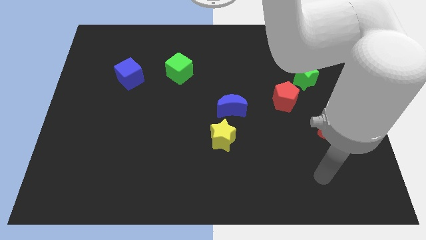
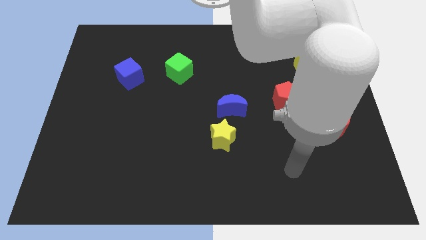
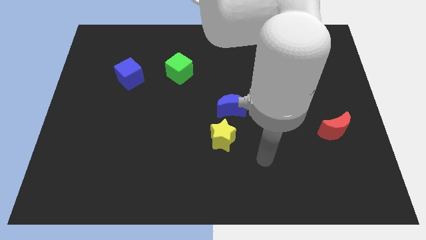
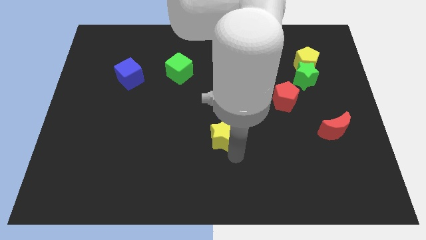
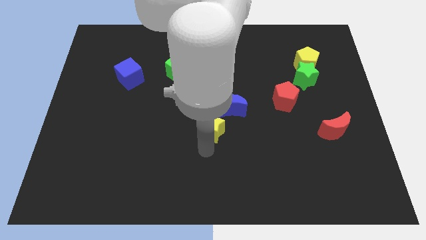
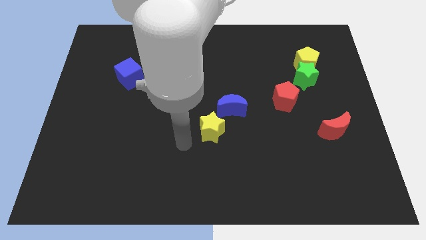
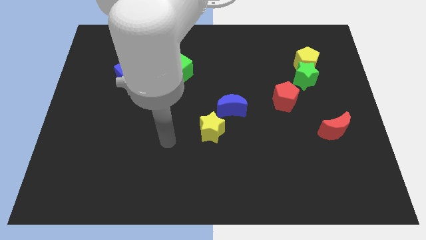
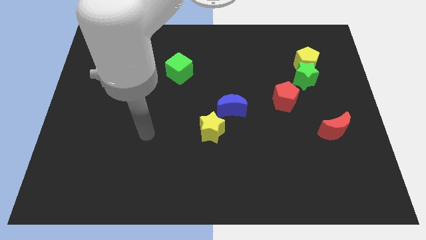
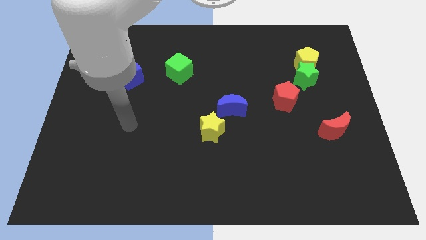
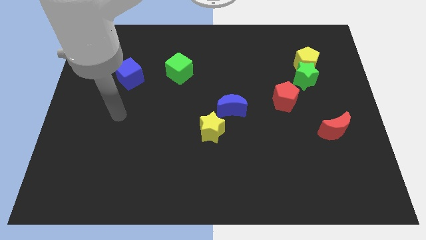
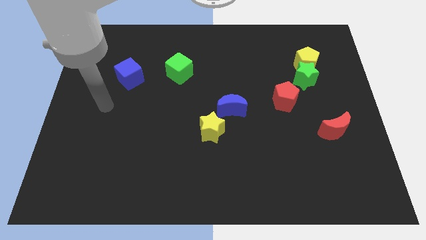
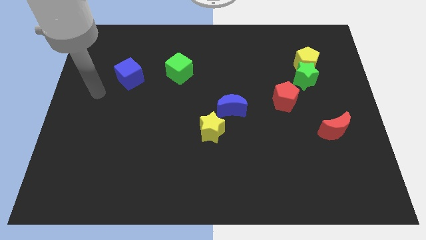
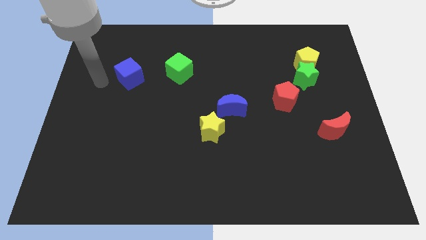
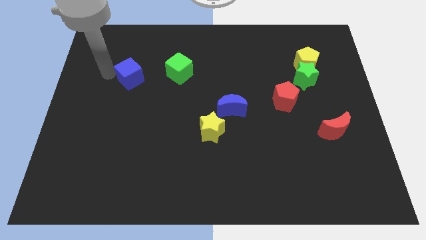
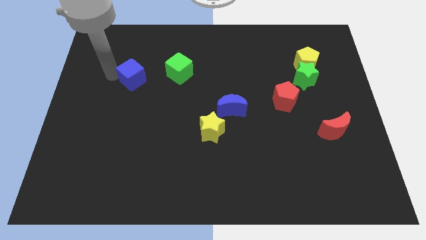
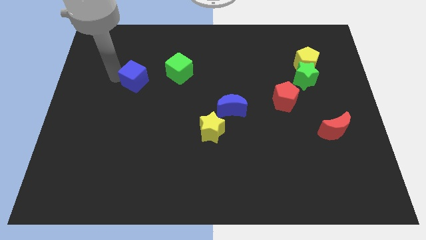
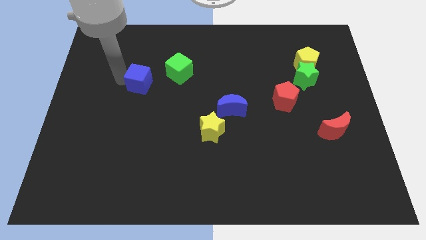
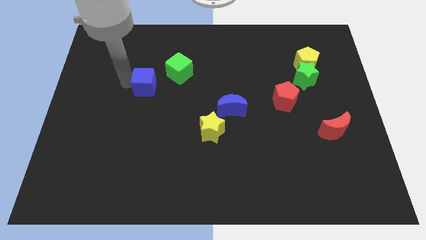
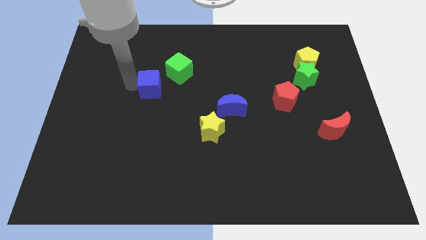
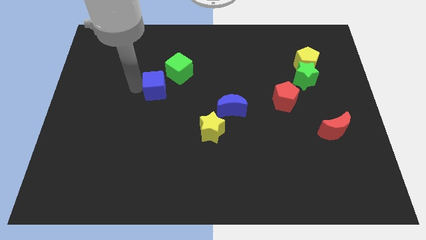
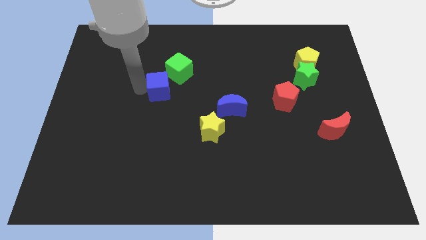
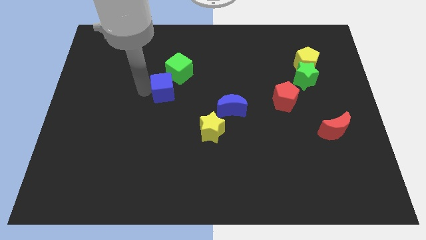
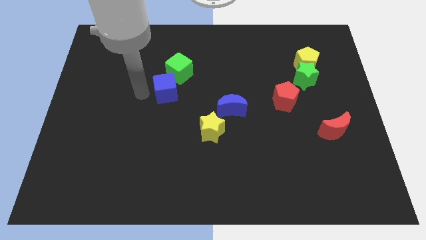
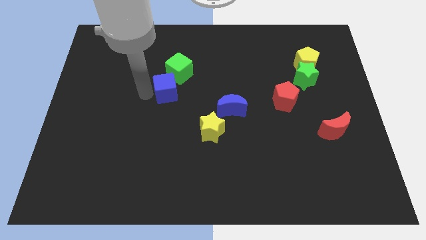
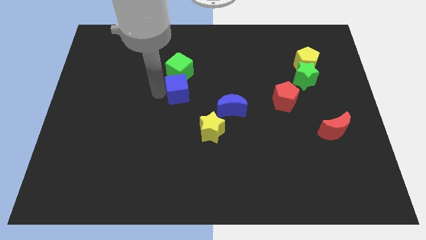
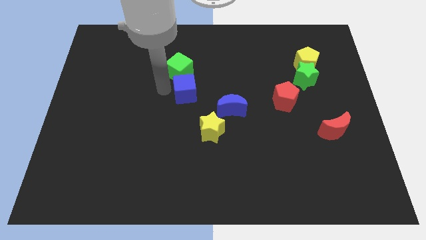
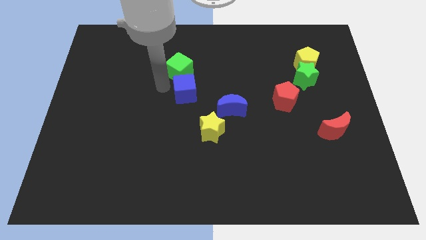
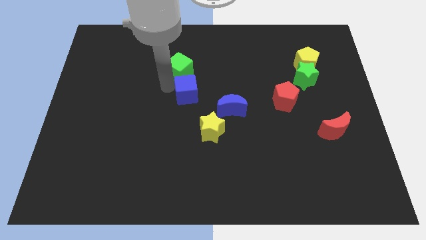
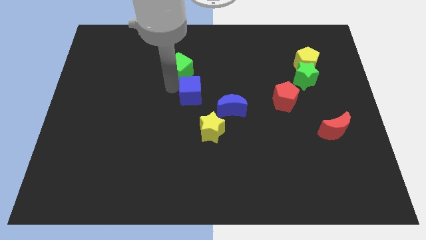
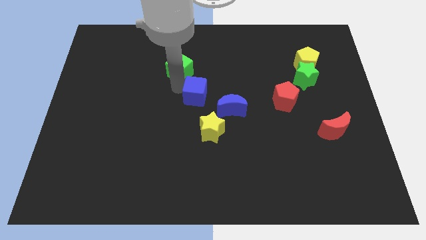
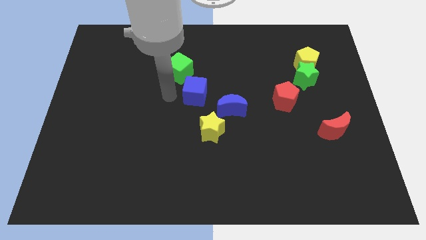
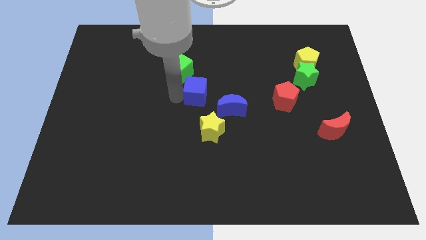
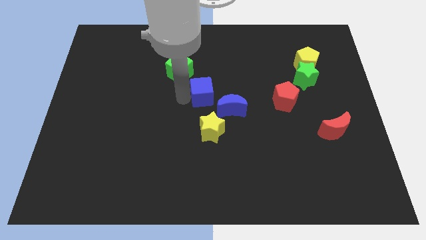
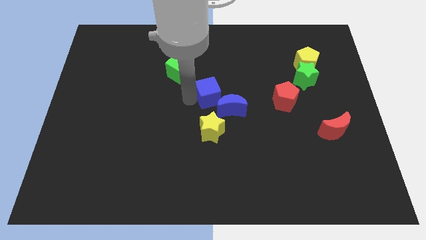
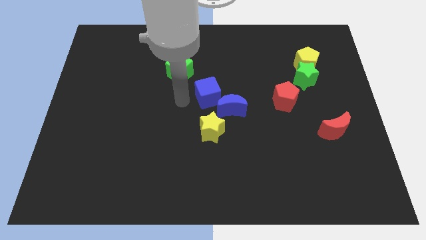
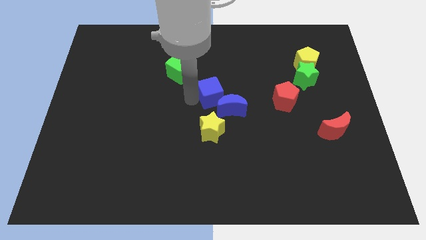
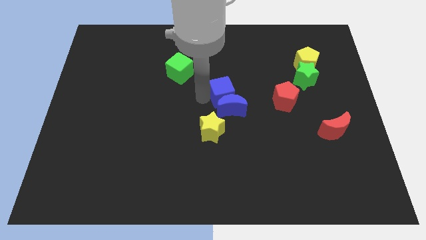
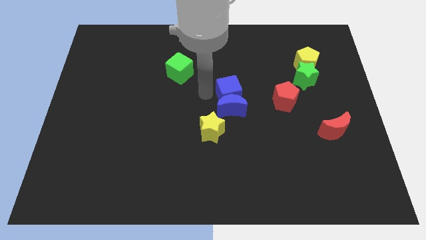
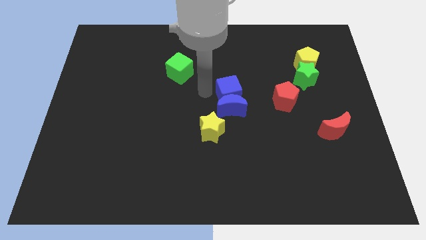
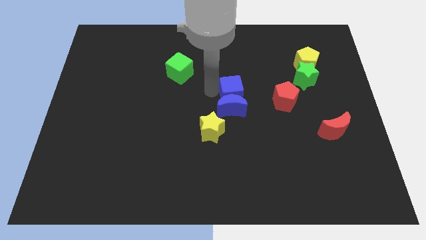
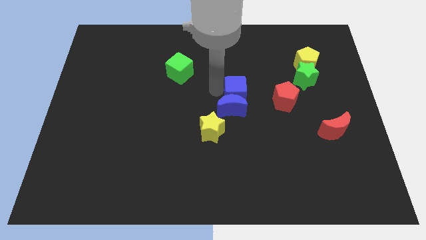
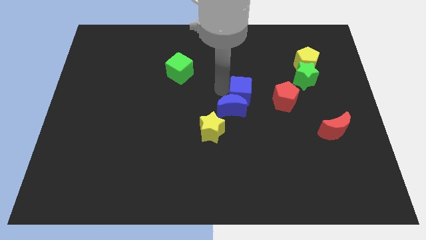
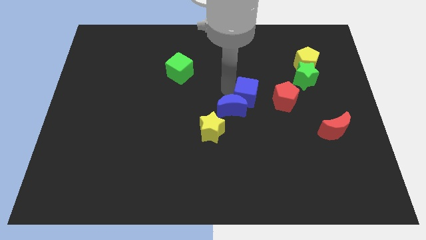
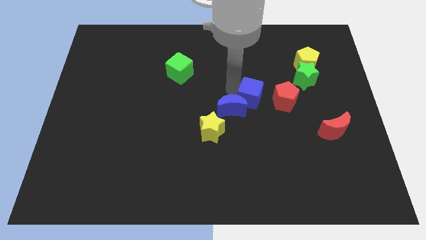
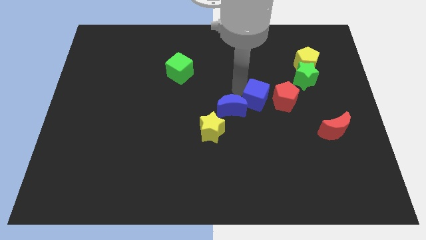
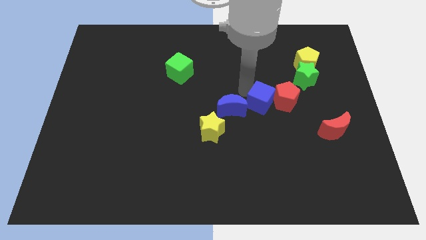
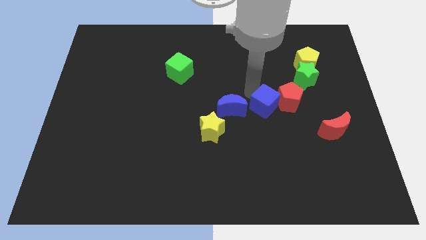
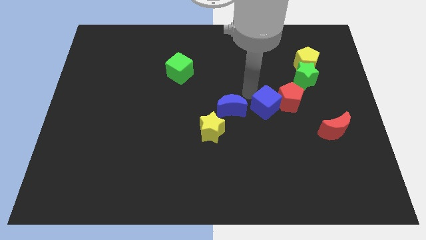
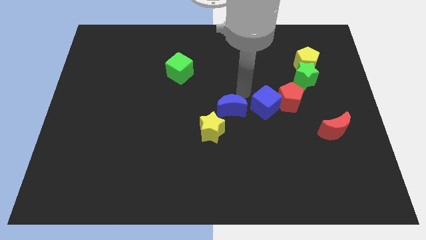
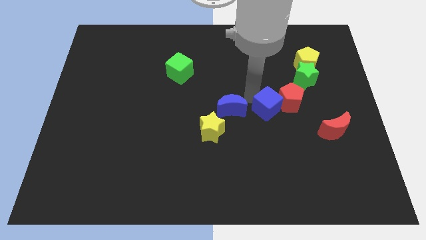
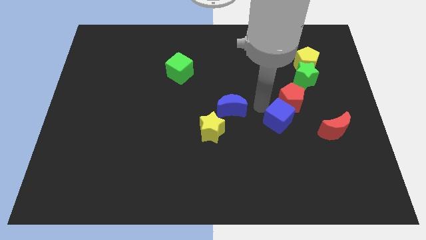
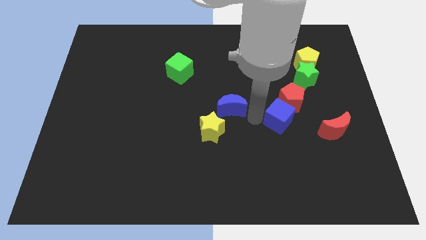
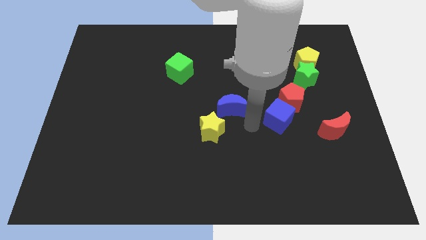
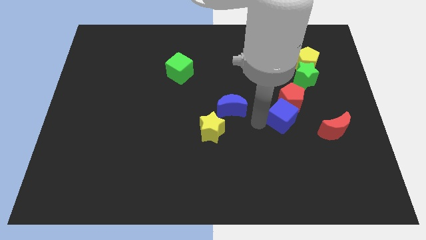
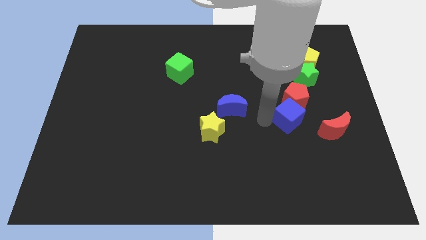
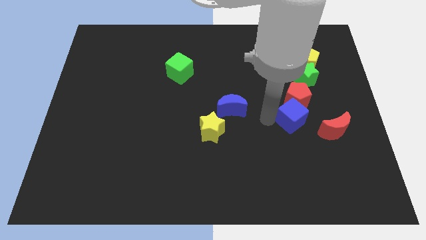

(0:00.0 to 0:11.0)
put the blue cube to the bottom of the green star

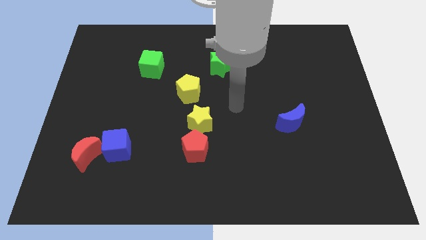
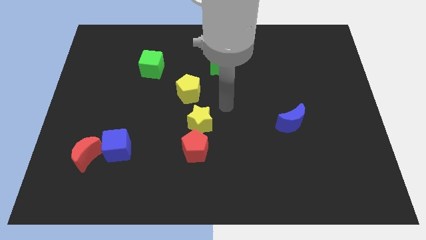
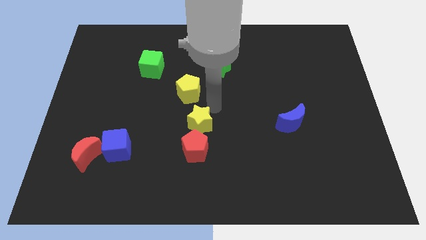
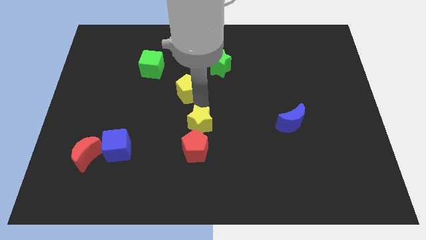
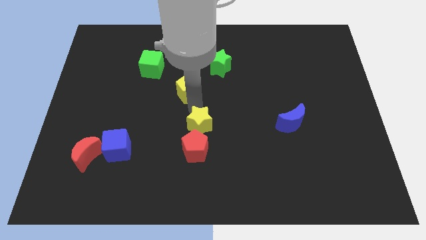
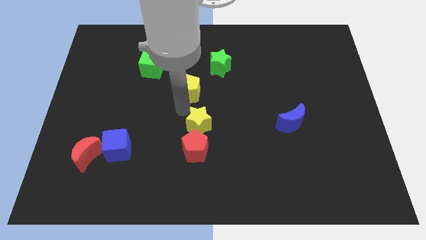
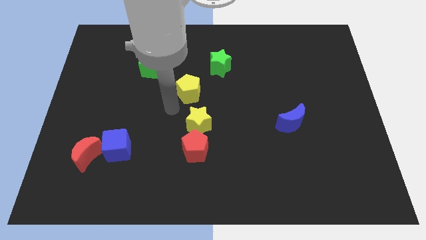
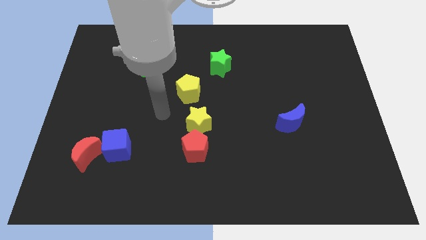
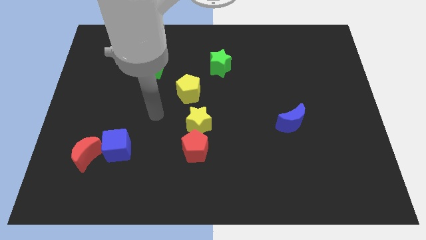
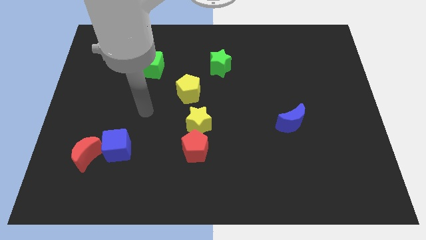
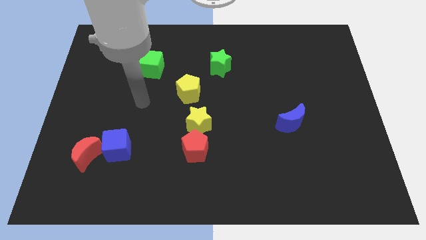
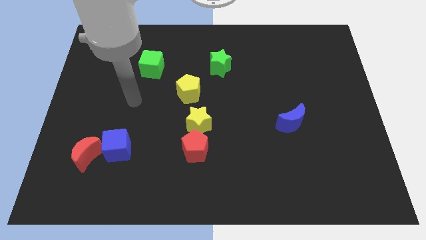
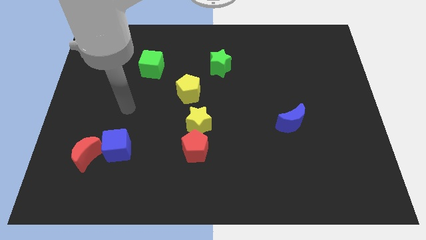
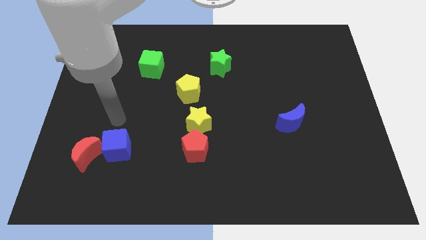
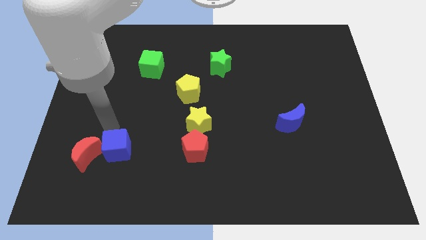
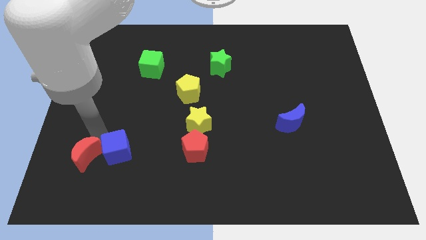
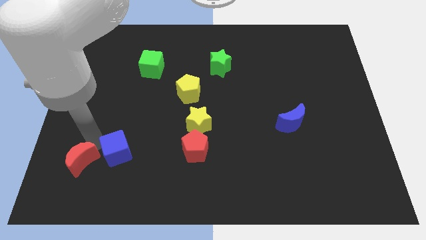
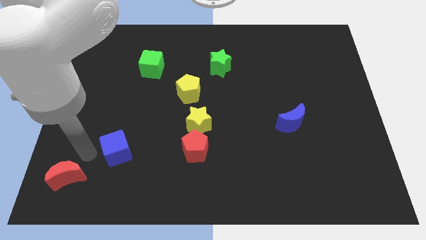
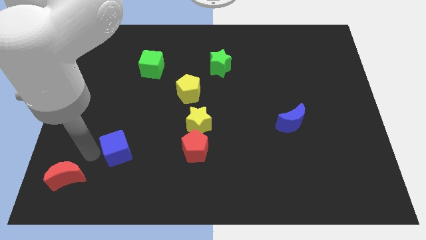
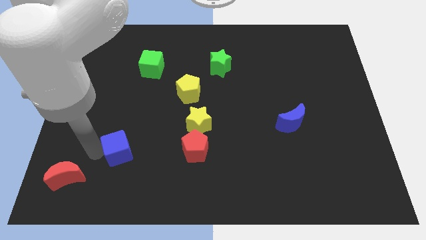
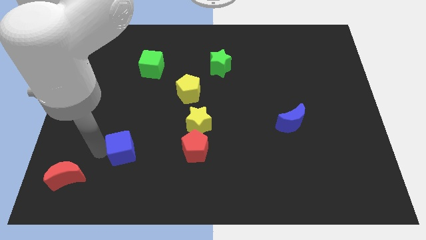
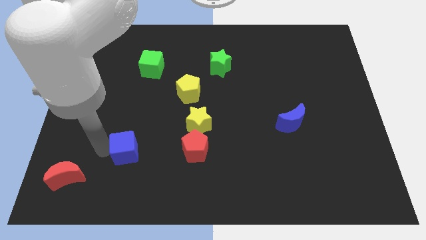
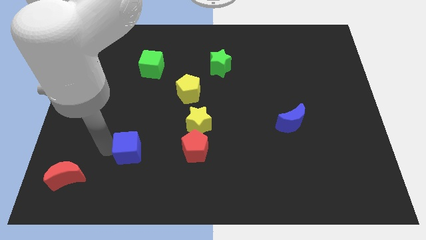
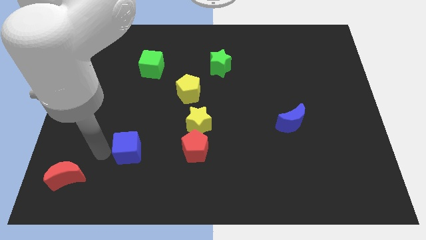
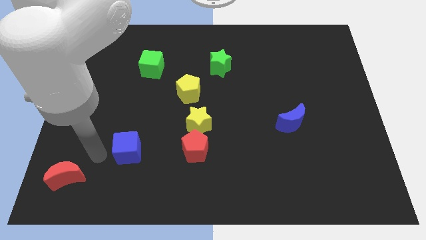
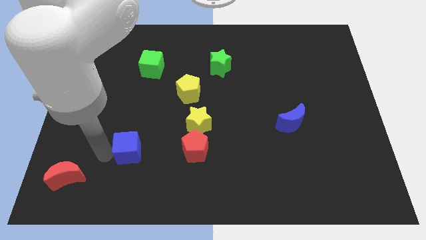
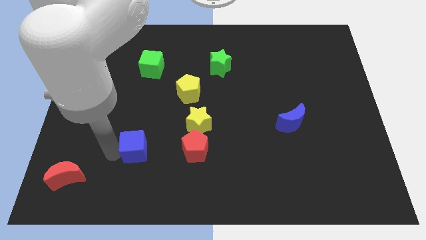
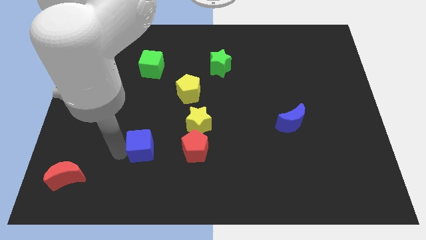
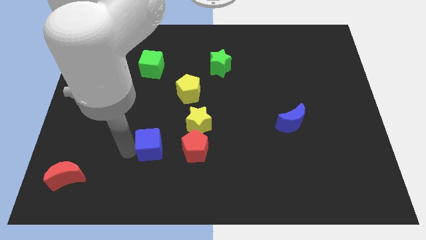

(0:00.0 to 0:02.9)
slide the blue cube diagonally down and to the left of the yellow star

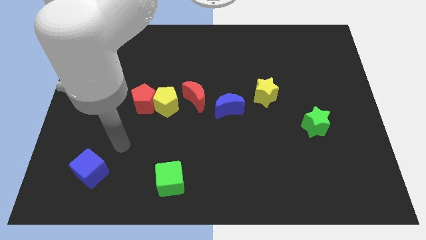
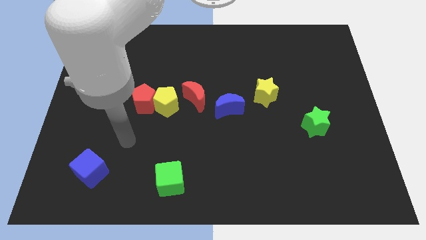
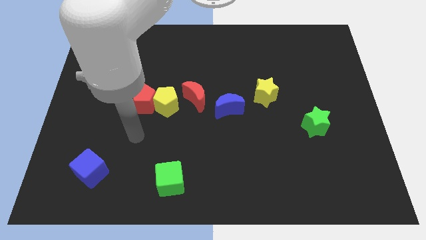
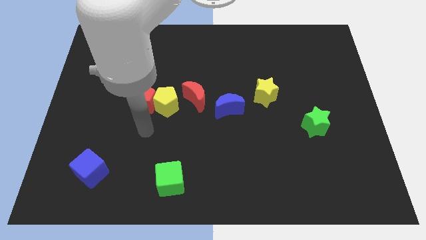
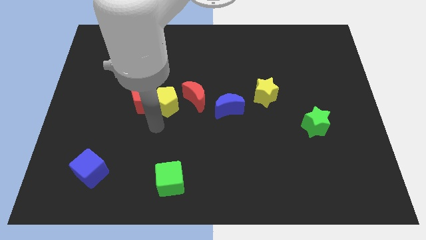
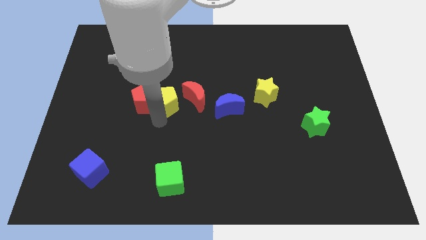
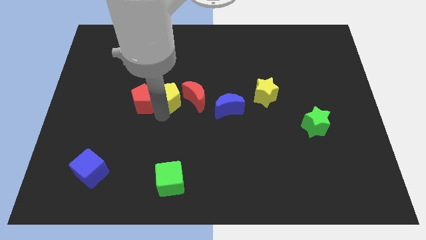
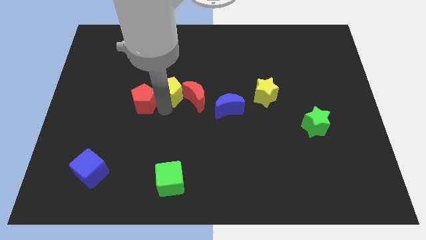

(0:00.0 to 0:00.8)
put the yellow pentagon to the top left of the red moon
